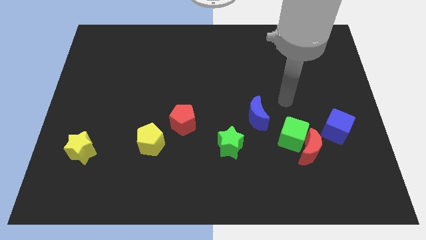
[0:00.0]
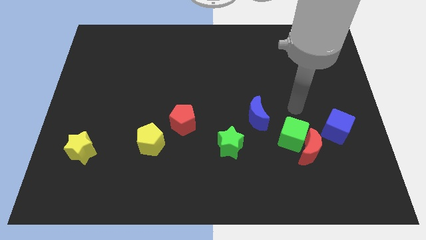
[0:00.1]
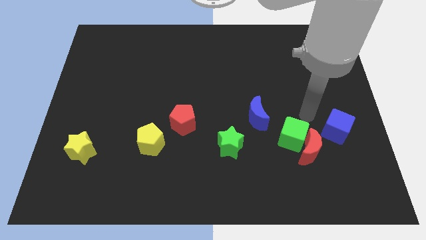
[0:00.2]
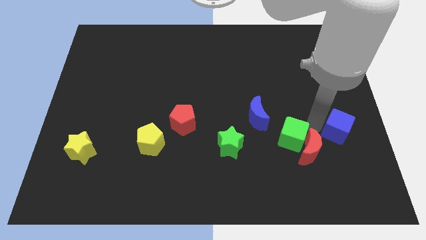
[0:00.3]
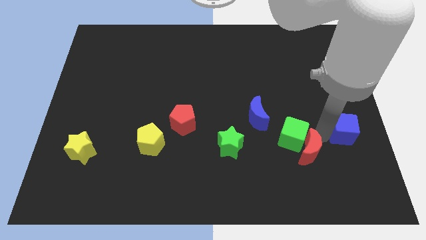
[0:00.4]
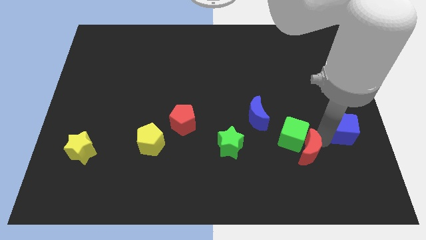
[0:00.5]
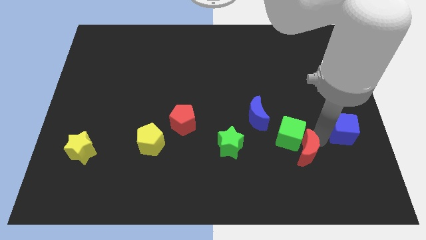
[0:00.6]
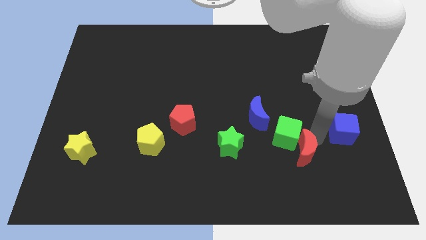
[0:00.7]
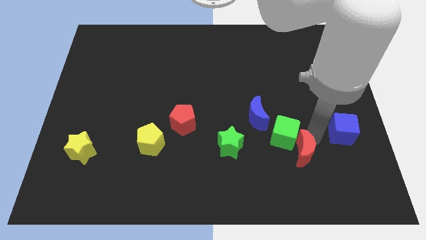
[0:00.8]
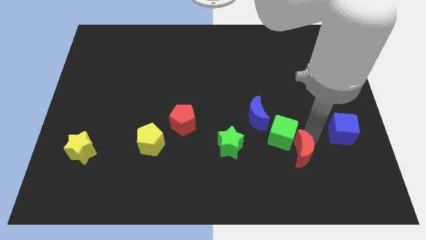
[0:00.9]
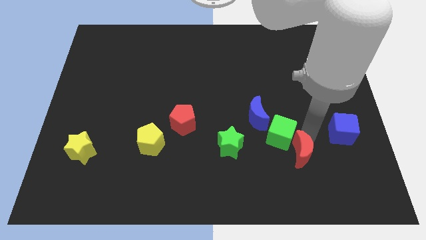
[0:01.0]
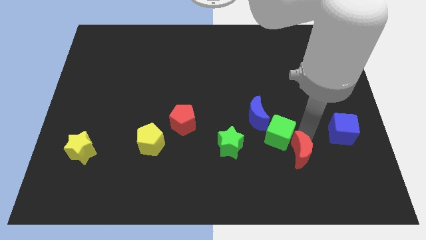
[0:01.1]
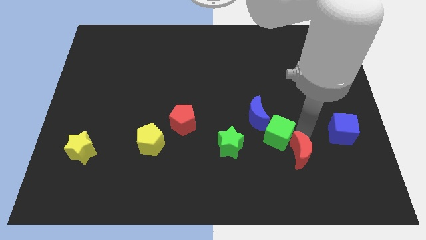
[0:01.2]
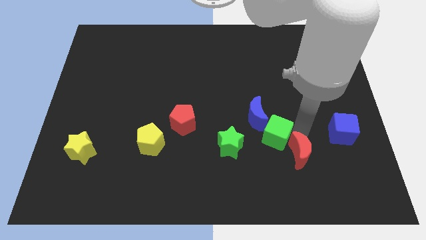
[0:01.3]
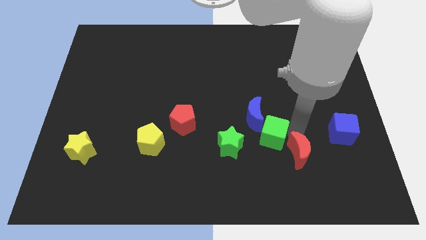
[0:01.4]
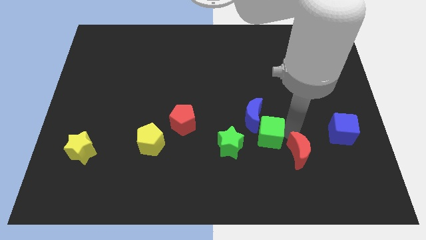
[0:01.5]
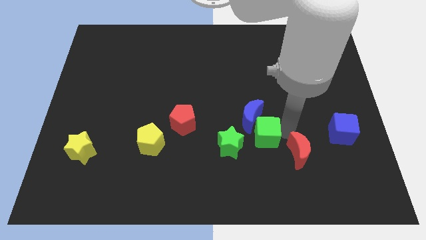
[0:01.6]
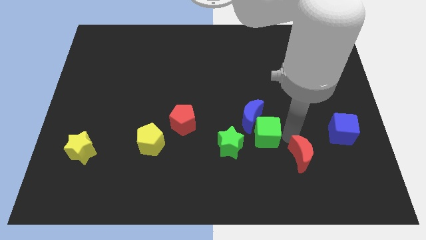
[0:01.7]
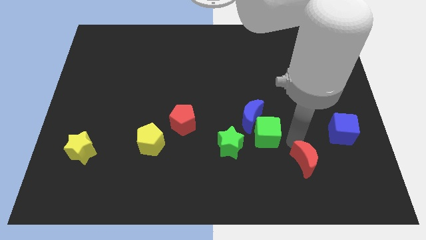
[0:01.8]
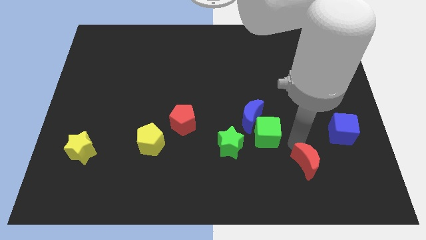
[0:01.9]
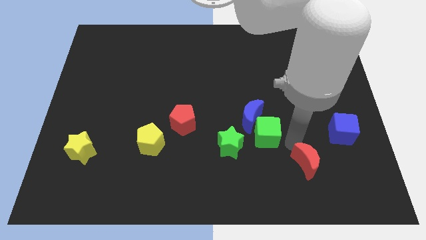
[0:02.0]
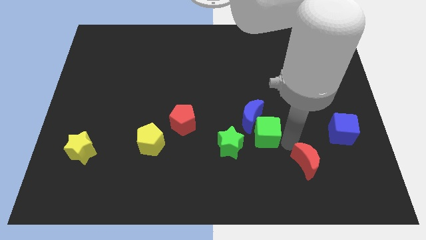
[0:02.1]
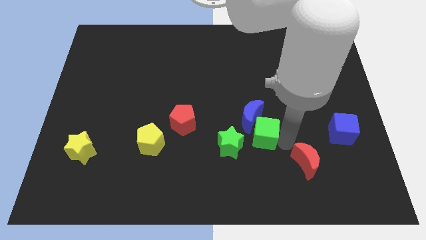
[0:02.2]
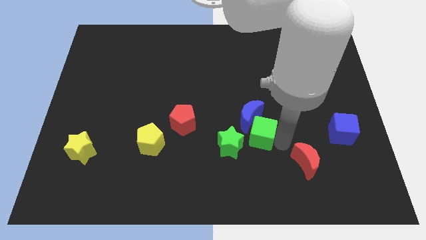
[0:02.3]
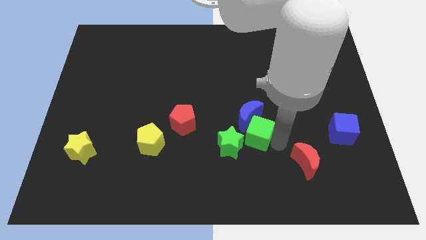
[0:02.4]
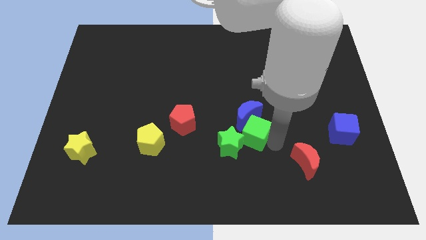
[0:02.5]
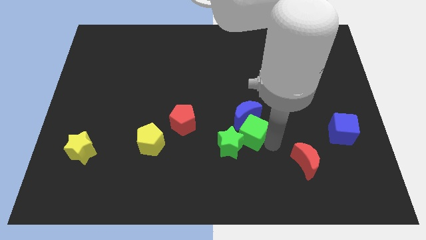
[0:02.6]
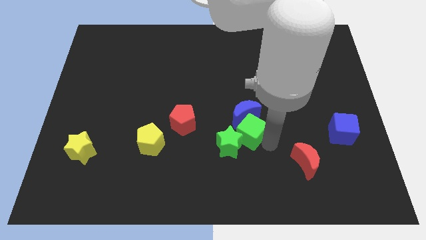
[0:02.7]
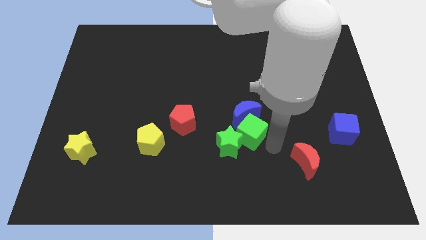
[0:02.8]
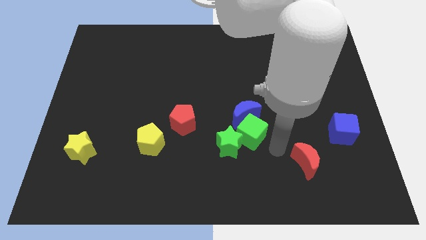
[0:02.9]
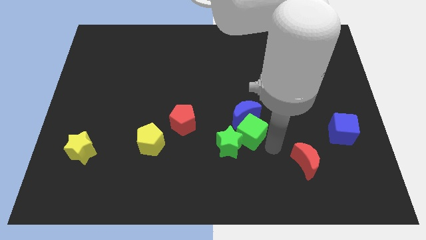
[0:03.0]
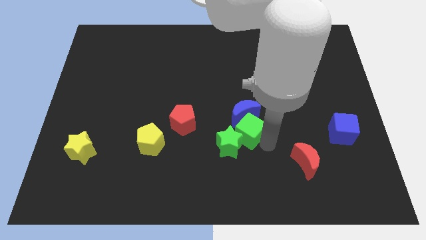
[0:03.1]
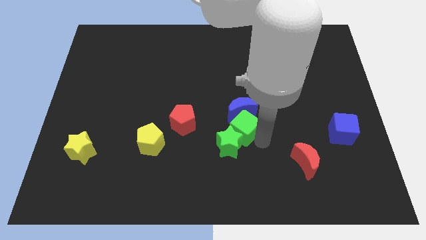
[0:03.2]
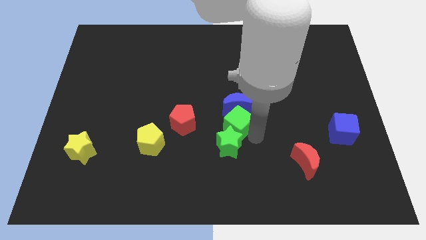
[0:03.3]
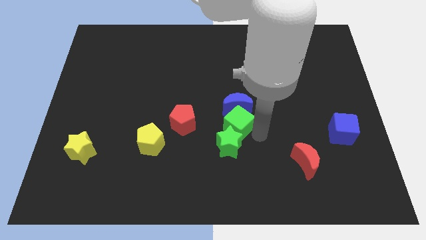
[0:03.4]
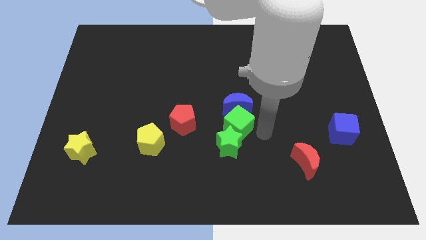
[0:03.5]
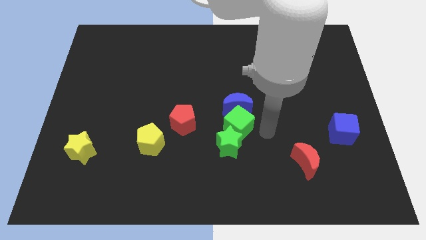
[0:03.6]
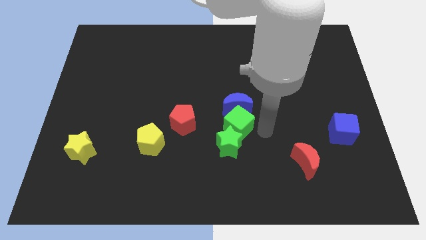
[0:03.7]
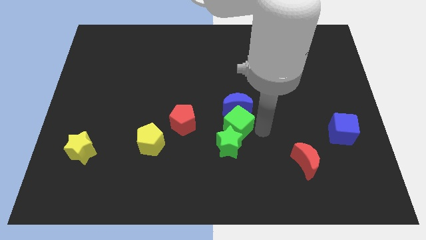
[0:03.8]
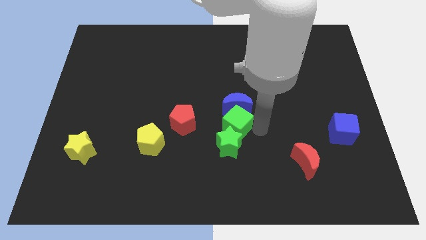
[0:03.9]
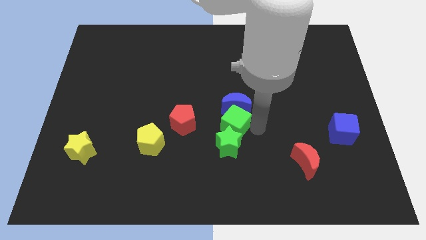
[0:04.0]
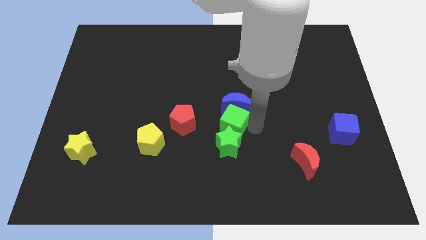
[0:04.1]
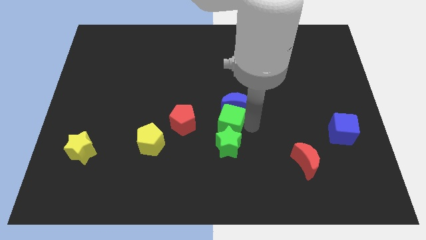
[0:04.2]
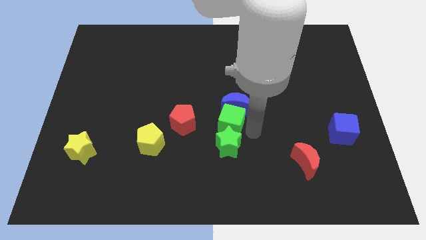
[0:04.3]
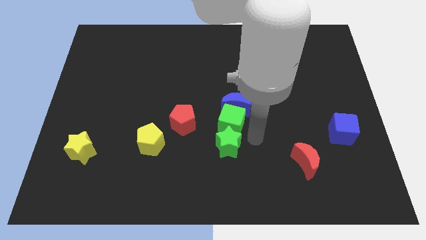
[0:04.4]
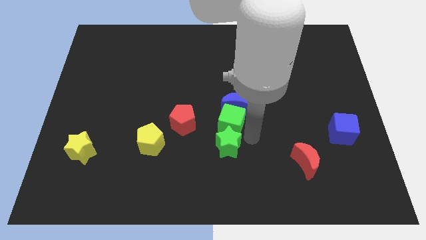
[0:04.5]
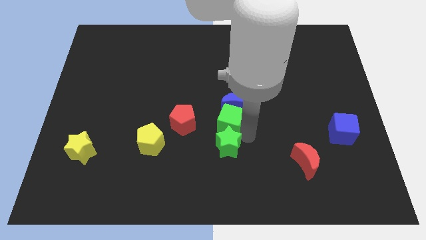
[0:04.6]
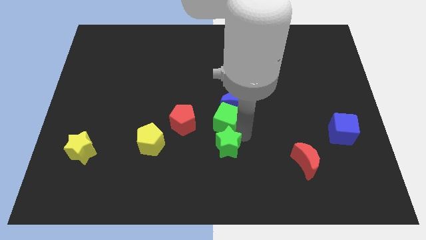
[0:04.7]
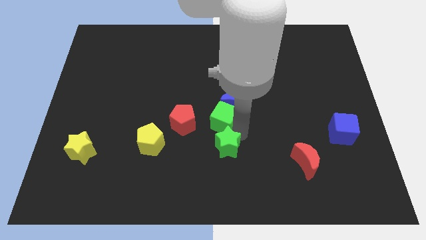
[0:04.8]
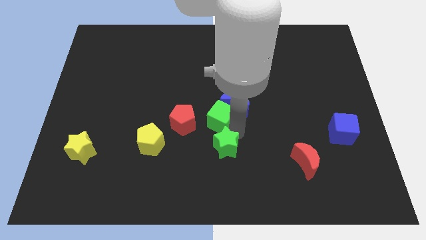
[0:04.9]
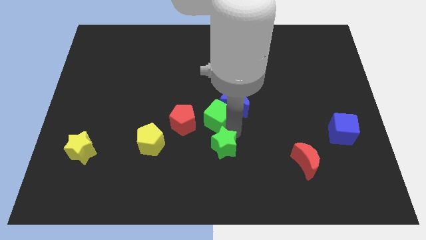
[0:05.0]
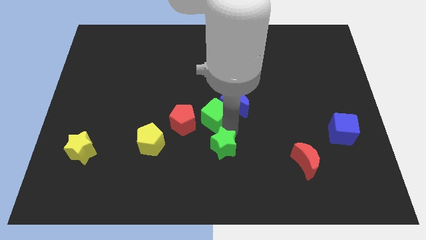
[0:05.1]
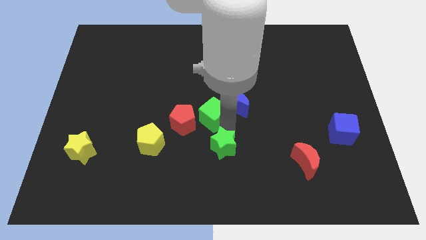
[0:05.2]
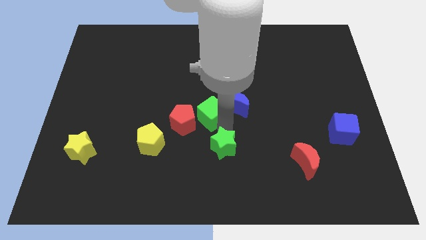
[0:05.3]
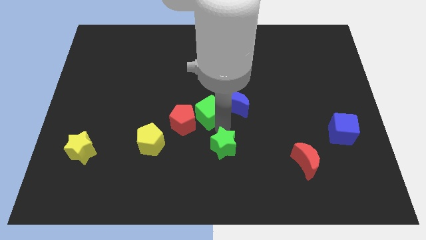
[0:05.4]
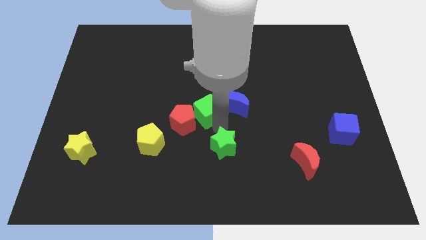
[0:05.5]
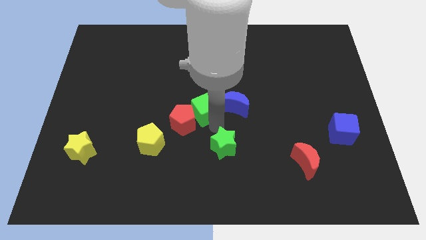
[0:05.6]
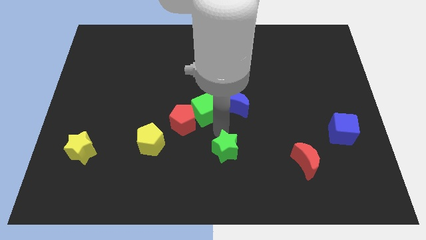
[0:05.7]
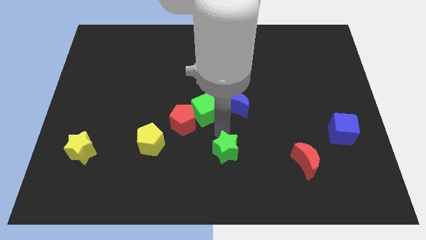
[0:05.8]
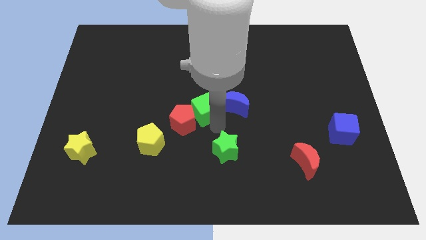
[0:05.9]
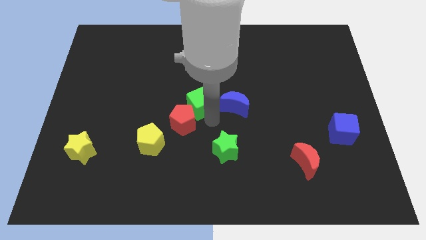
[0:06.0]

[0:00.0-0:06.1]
move the green cube to the top side of the red pentagon

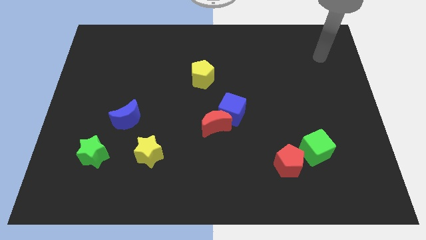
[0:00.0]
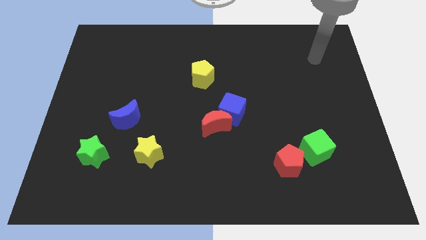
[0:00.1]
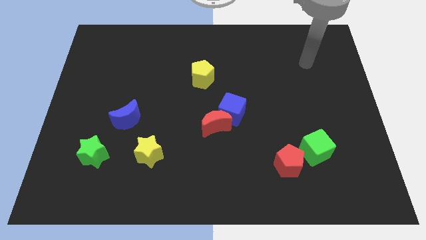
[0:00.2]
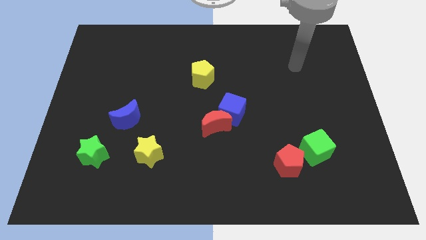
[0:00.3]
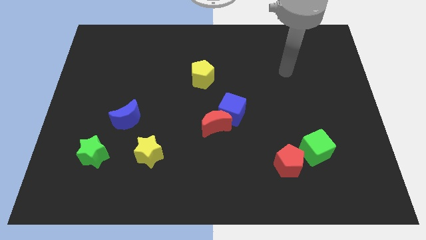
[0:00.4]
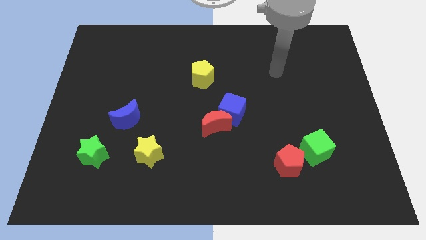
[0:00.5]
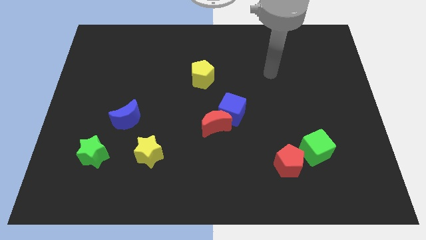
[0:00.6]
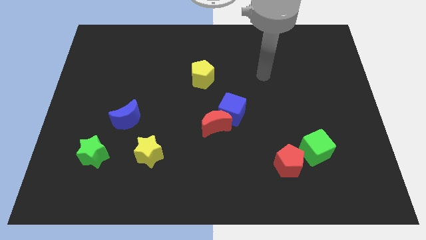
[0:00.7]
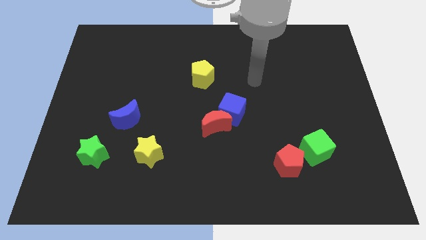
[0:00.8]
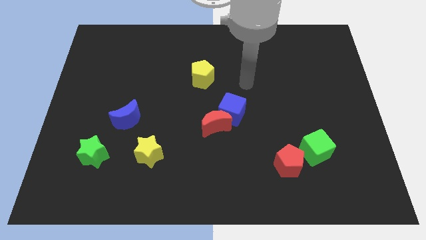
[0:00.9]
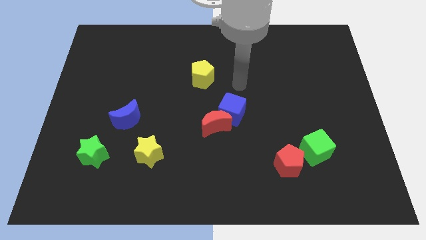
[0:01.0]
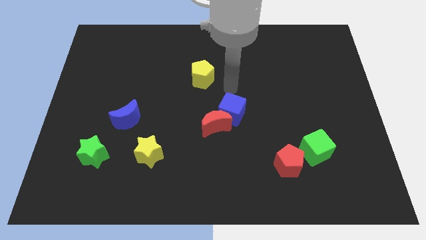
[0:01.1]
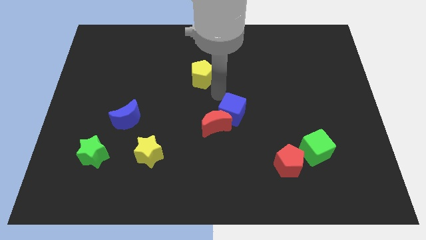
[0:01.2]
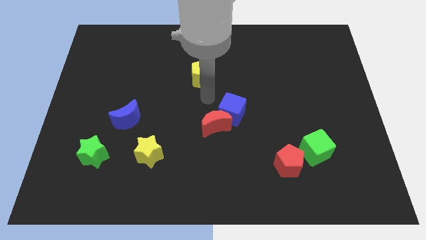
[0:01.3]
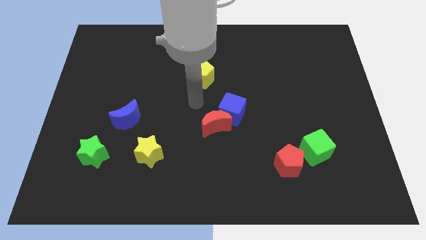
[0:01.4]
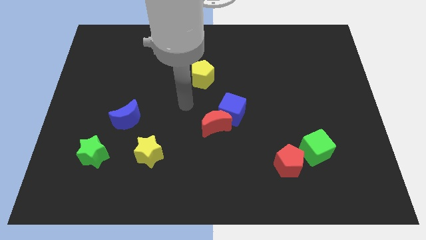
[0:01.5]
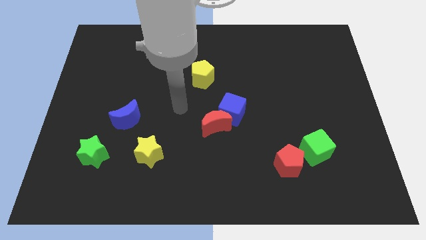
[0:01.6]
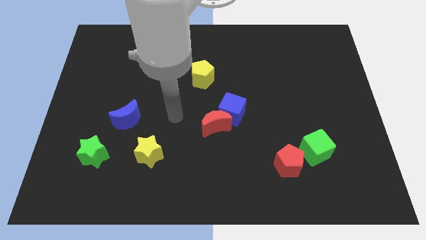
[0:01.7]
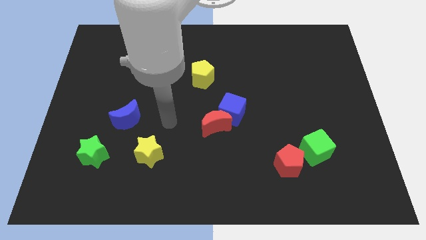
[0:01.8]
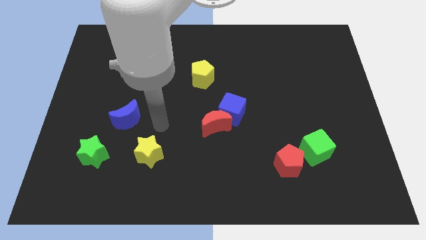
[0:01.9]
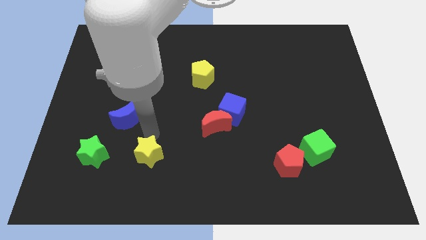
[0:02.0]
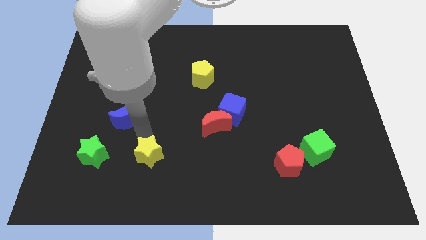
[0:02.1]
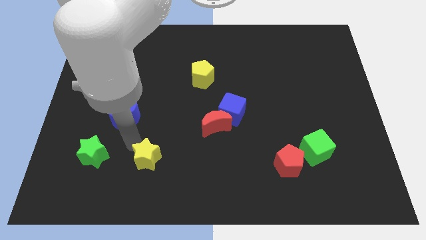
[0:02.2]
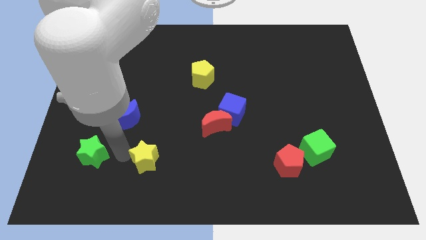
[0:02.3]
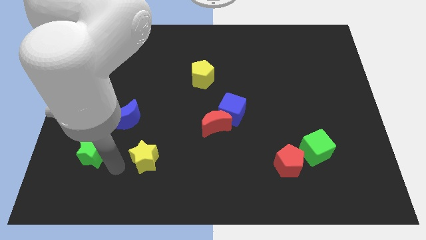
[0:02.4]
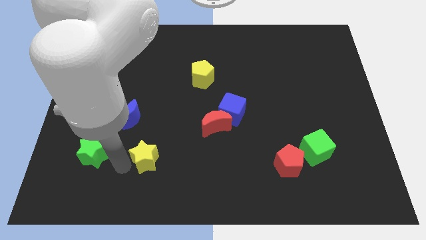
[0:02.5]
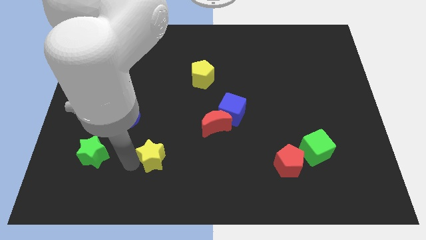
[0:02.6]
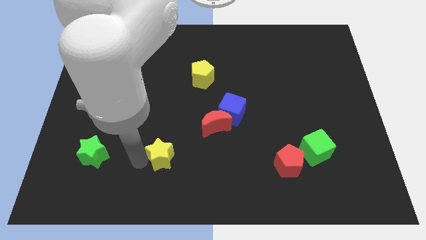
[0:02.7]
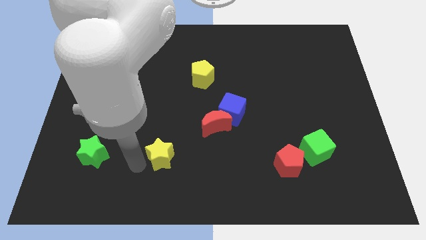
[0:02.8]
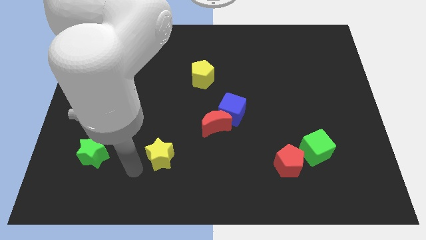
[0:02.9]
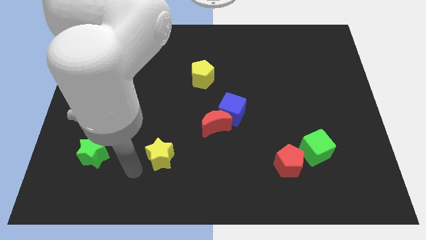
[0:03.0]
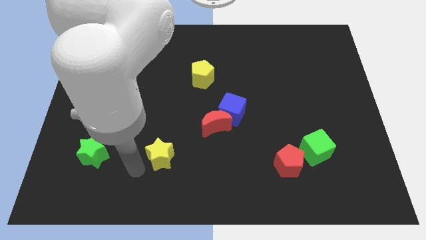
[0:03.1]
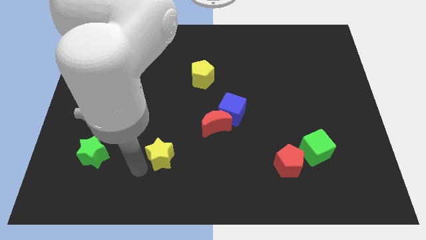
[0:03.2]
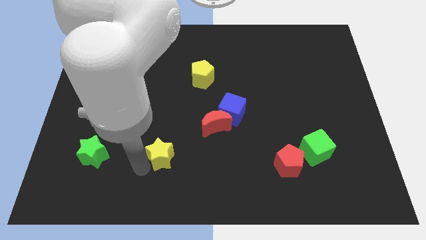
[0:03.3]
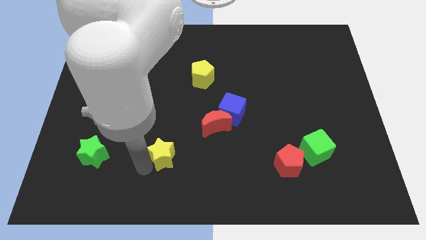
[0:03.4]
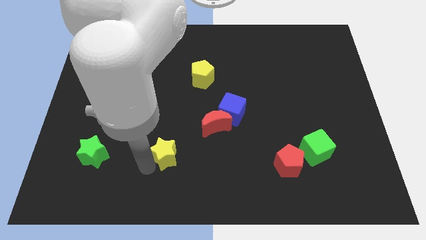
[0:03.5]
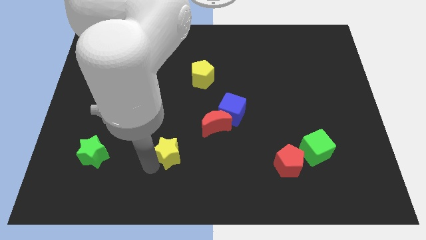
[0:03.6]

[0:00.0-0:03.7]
slide the yellow star to the bottom left of the red moon
